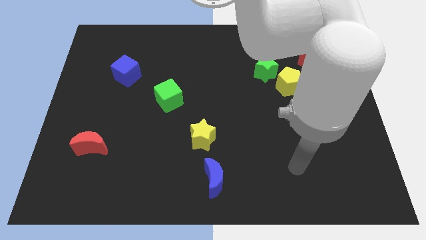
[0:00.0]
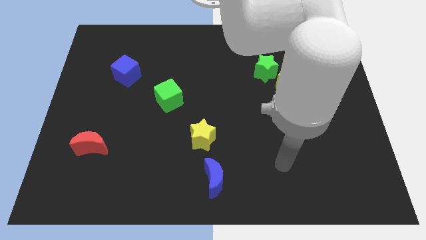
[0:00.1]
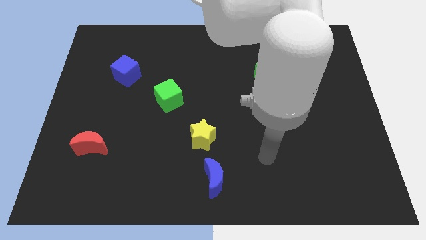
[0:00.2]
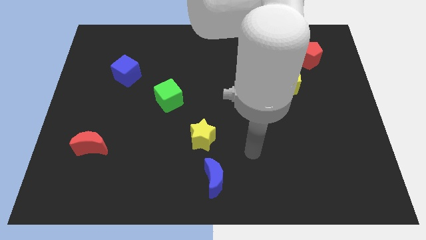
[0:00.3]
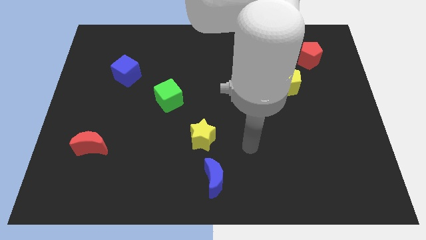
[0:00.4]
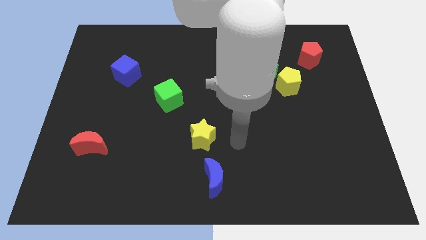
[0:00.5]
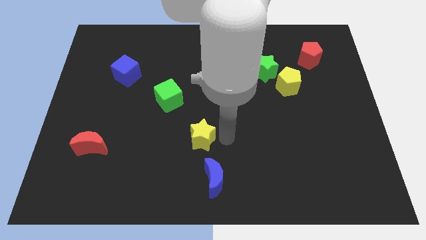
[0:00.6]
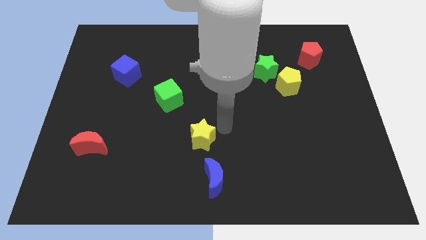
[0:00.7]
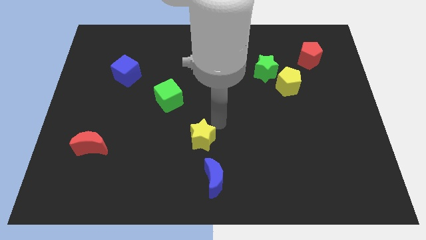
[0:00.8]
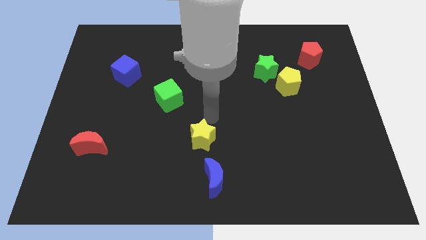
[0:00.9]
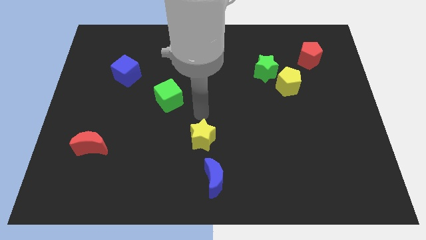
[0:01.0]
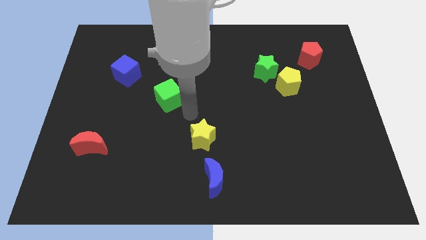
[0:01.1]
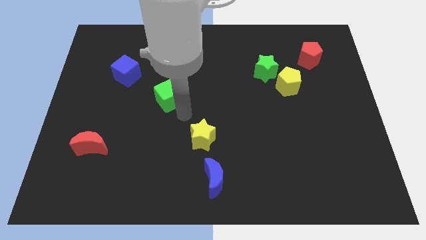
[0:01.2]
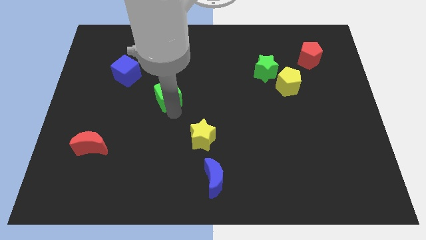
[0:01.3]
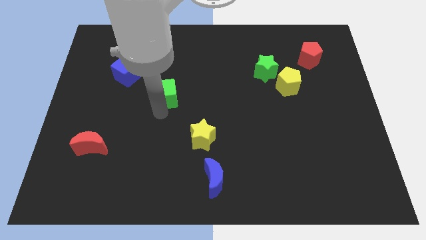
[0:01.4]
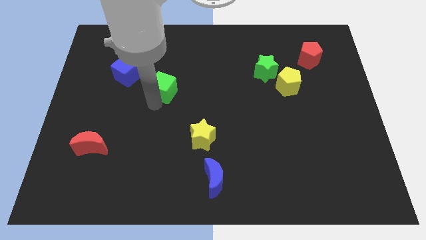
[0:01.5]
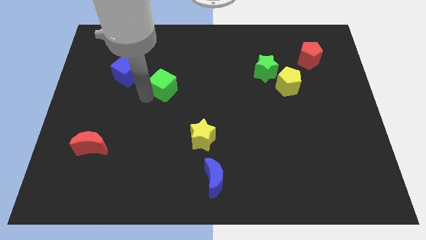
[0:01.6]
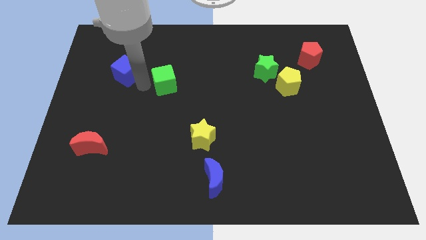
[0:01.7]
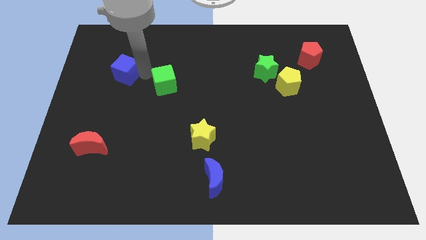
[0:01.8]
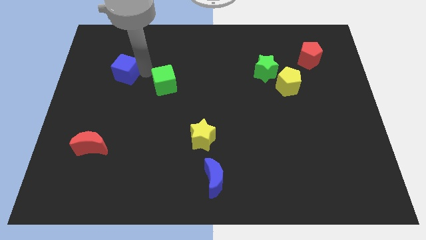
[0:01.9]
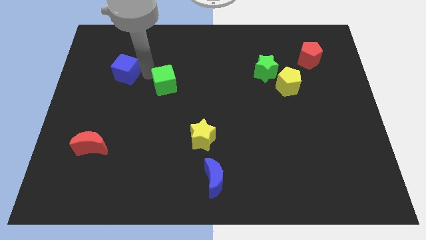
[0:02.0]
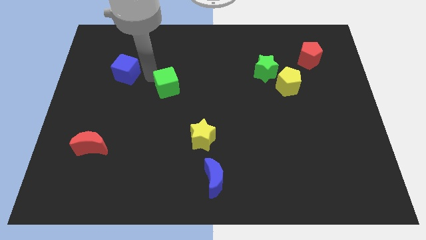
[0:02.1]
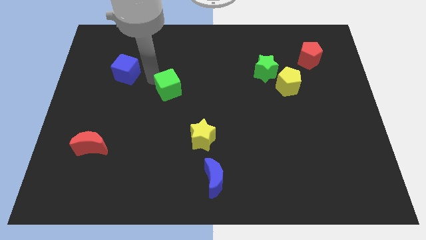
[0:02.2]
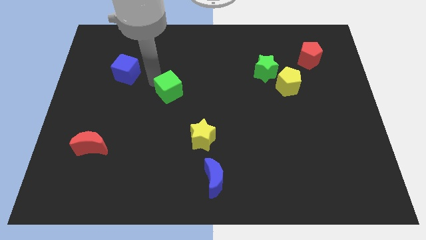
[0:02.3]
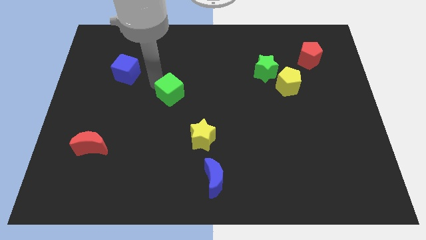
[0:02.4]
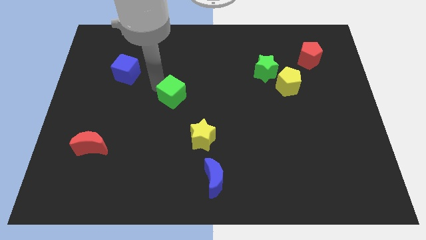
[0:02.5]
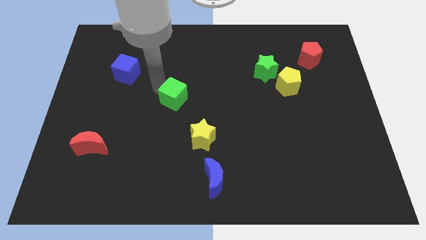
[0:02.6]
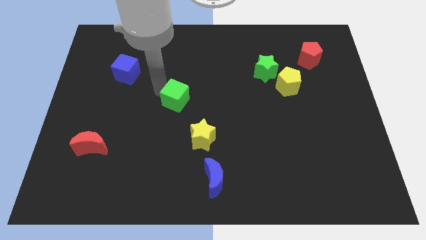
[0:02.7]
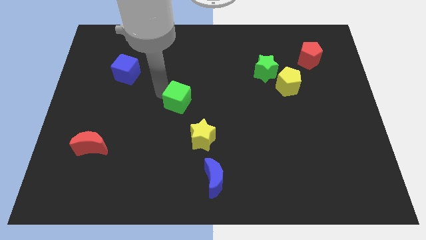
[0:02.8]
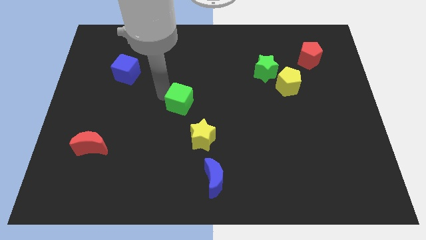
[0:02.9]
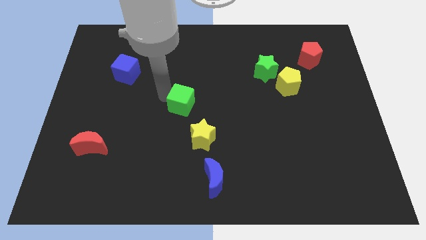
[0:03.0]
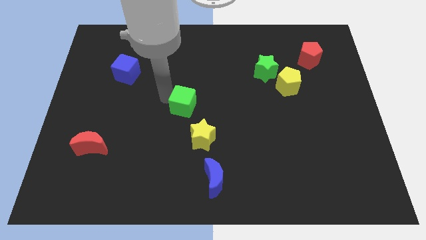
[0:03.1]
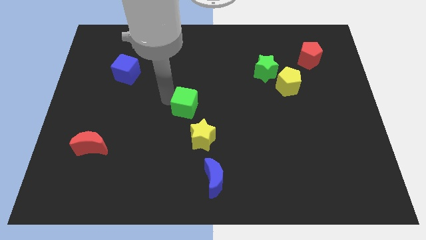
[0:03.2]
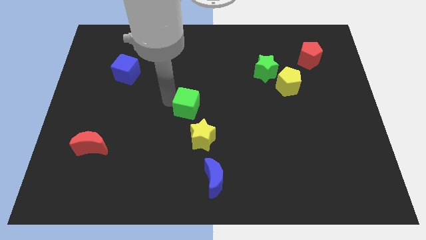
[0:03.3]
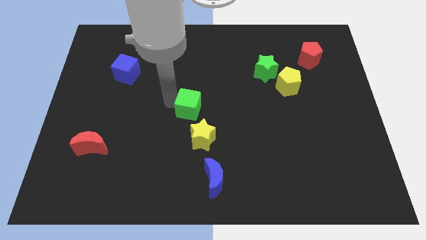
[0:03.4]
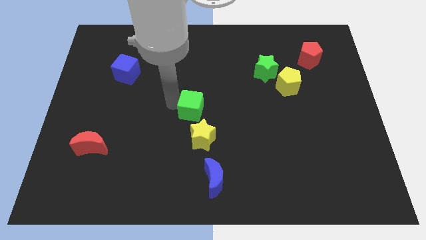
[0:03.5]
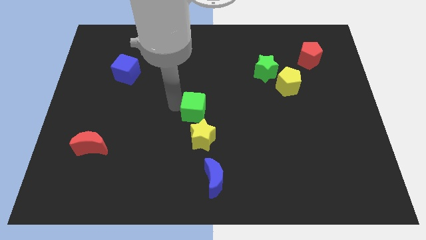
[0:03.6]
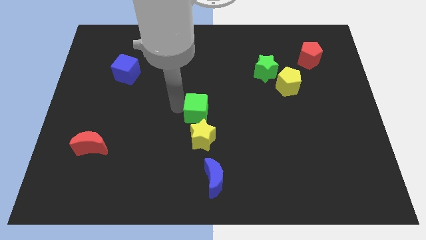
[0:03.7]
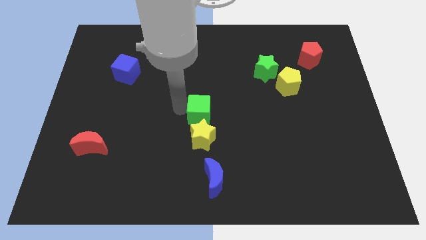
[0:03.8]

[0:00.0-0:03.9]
move the green cube a little bit right

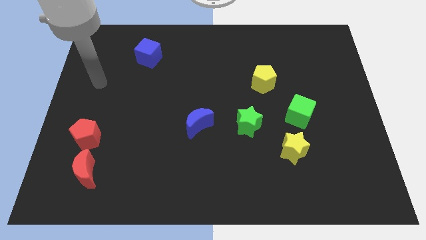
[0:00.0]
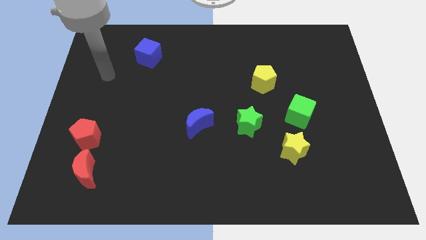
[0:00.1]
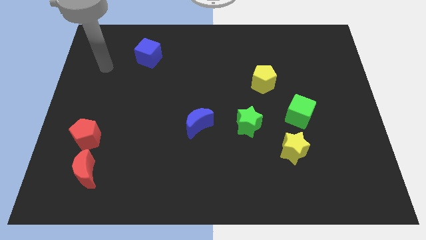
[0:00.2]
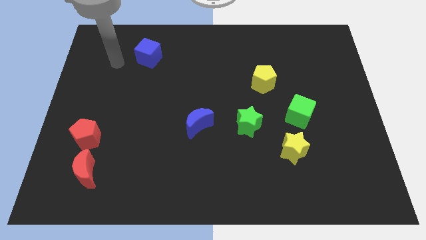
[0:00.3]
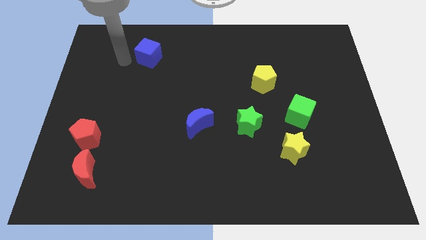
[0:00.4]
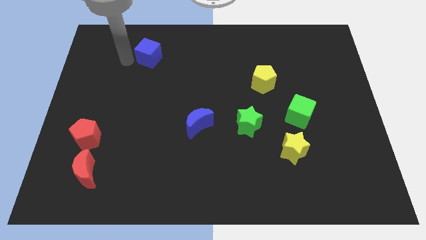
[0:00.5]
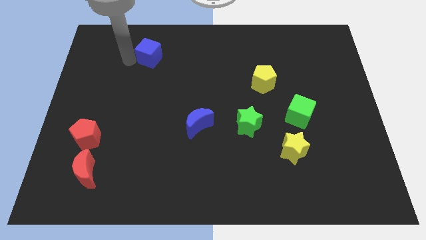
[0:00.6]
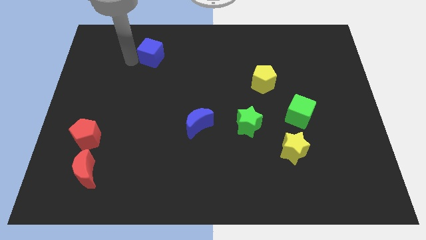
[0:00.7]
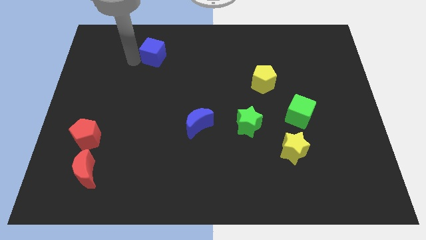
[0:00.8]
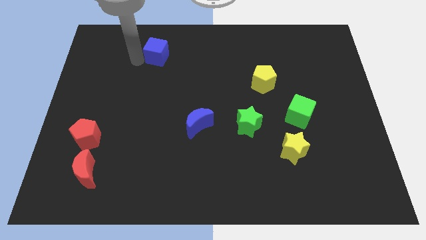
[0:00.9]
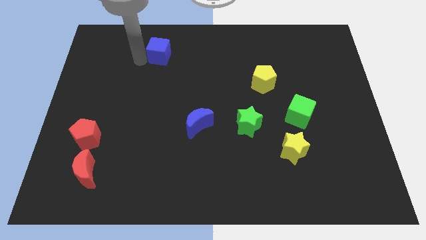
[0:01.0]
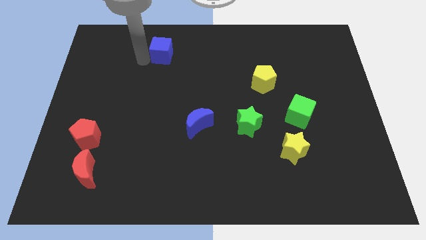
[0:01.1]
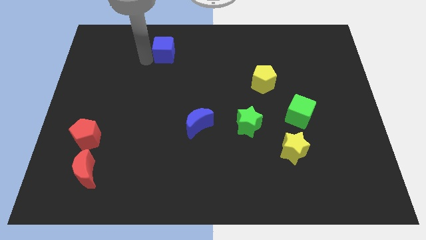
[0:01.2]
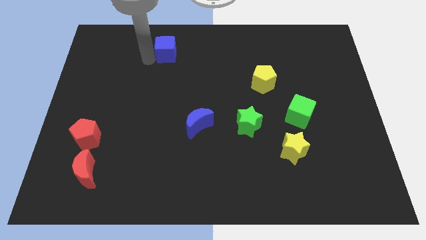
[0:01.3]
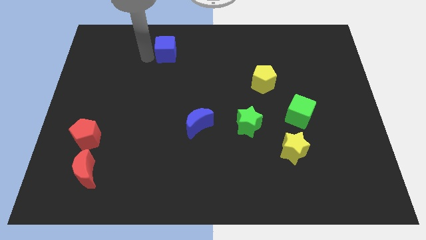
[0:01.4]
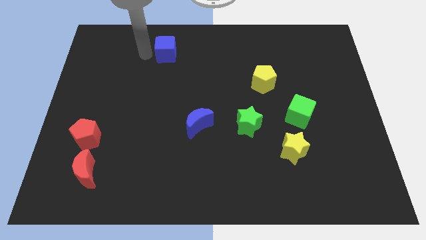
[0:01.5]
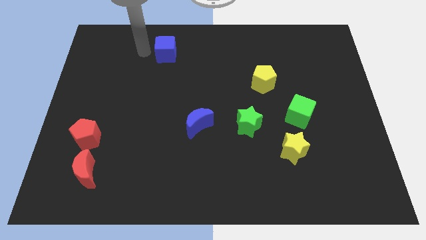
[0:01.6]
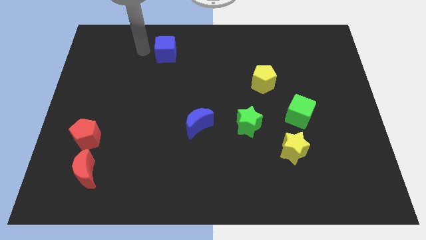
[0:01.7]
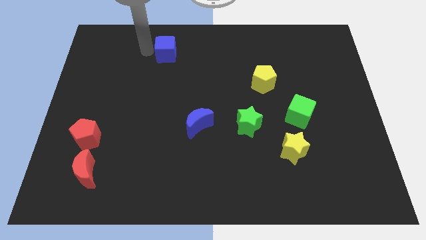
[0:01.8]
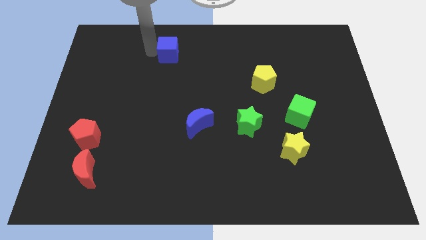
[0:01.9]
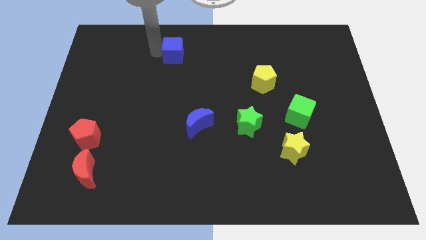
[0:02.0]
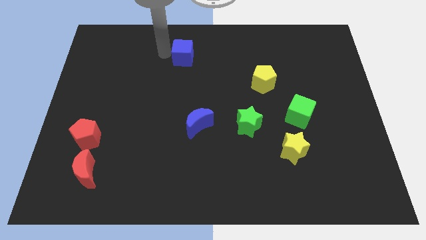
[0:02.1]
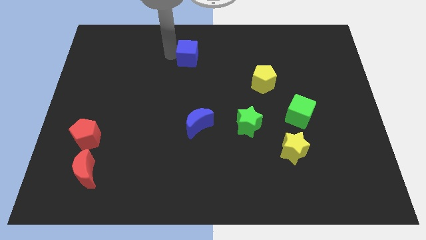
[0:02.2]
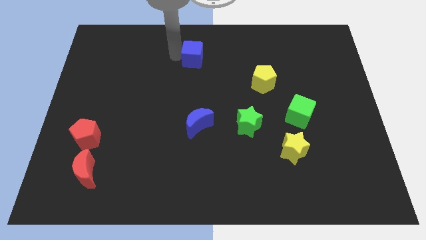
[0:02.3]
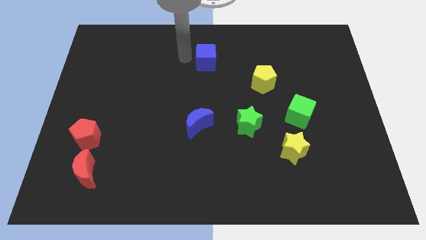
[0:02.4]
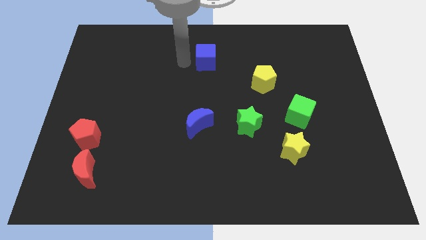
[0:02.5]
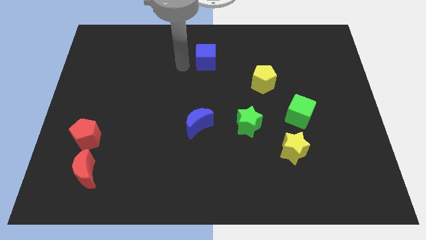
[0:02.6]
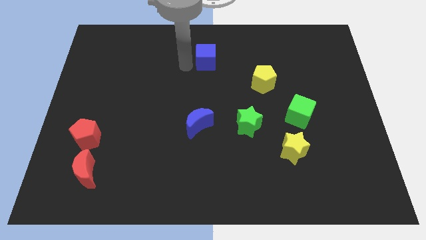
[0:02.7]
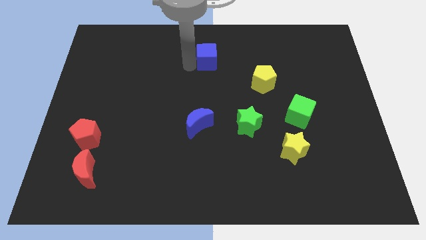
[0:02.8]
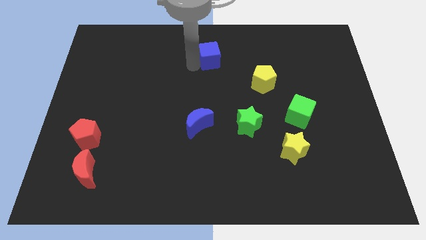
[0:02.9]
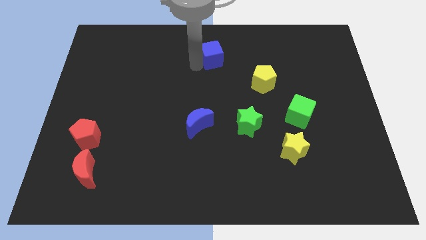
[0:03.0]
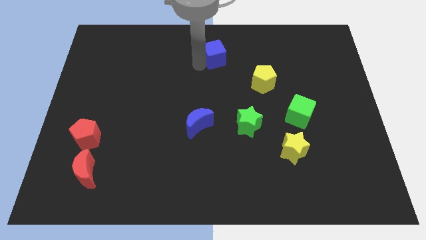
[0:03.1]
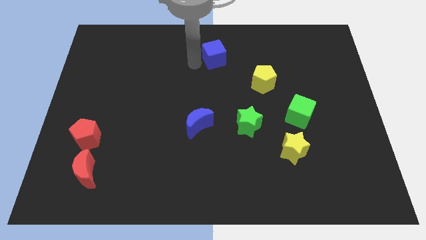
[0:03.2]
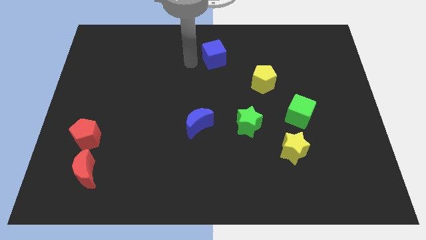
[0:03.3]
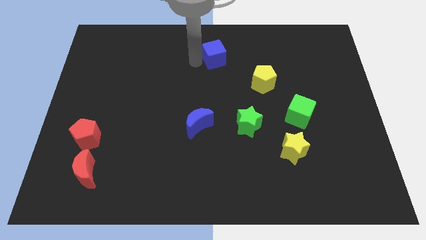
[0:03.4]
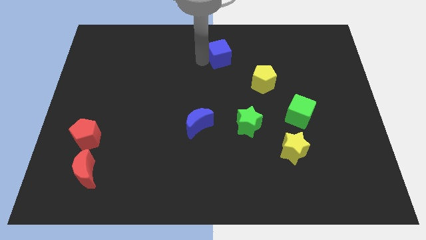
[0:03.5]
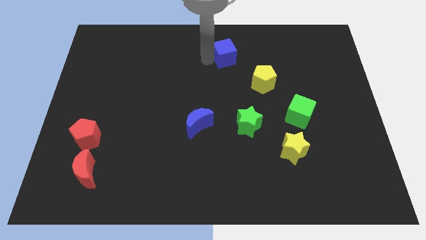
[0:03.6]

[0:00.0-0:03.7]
move the blue cube to the right

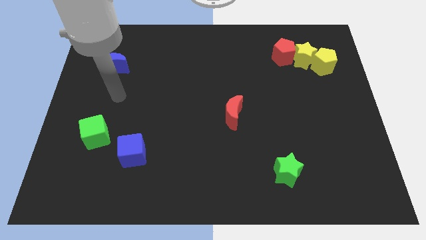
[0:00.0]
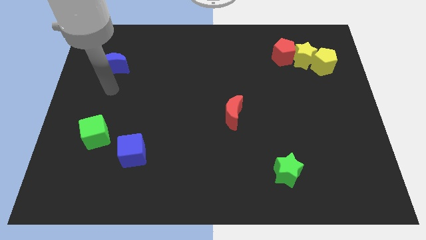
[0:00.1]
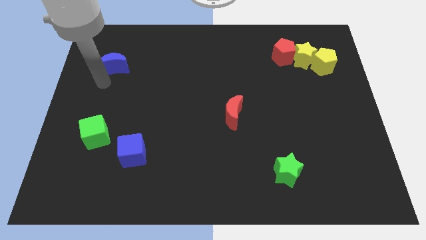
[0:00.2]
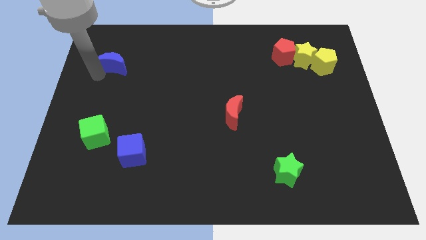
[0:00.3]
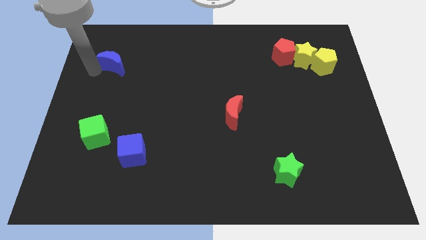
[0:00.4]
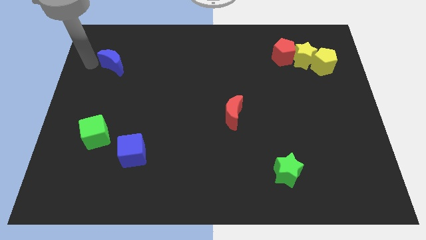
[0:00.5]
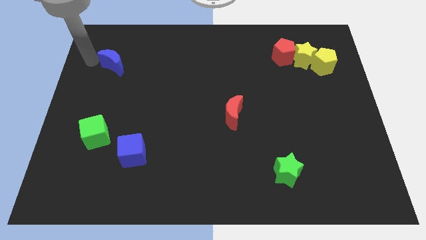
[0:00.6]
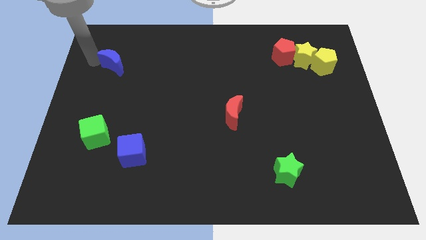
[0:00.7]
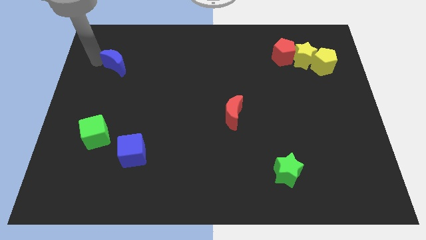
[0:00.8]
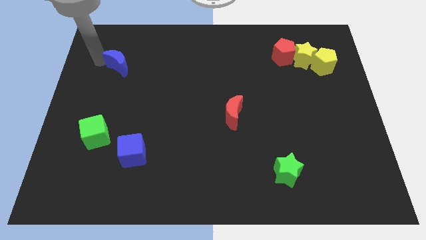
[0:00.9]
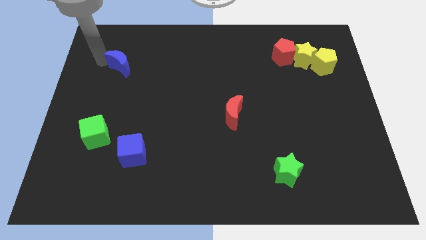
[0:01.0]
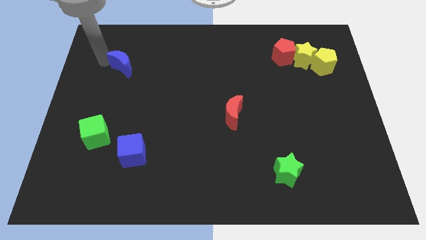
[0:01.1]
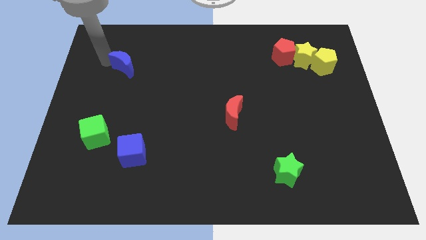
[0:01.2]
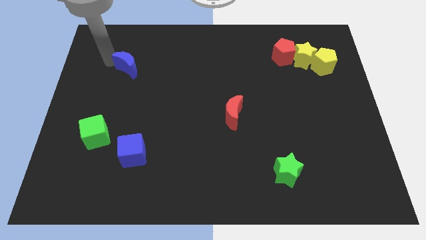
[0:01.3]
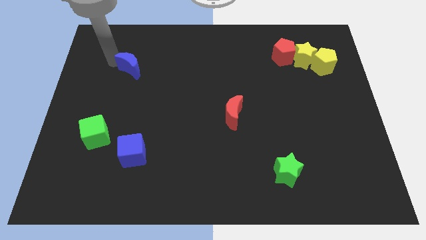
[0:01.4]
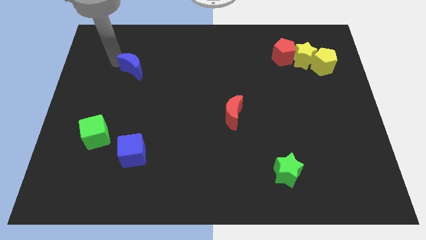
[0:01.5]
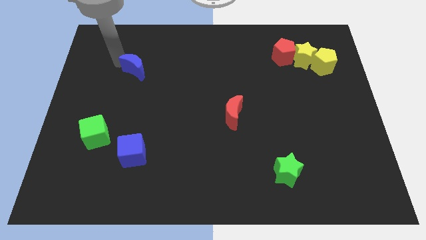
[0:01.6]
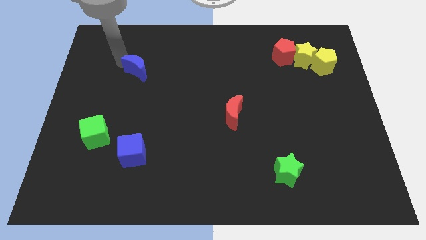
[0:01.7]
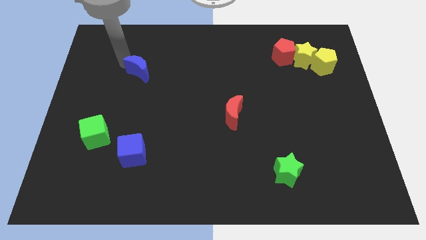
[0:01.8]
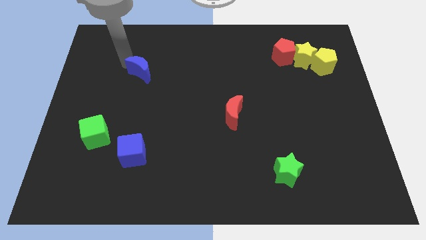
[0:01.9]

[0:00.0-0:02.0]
slide the blue moon right a little bit
